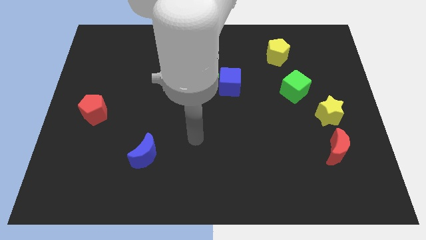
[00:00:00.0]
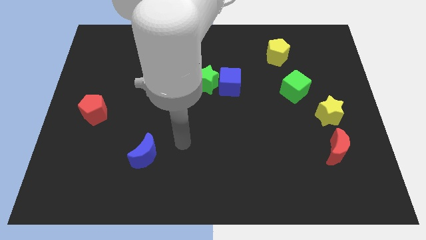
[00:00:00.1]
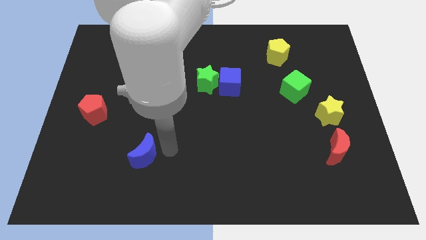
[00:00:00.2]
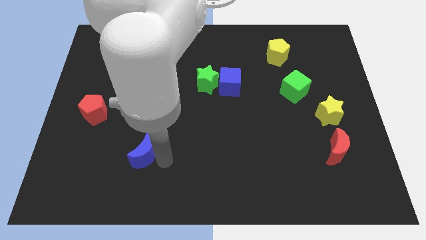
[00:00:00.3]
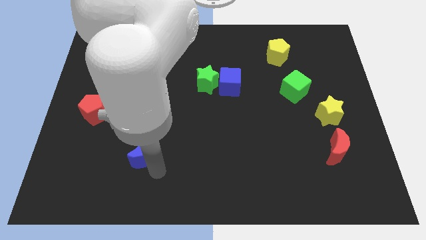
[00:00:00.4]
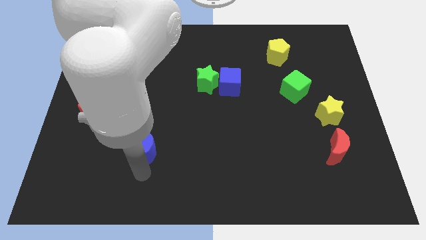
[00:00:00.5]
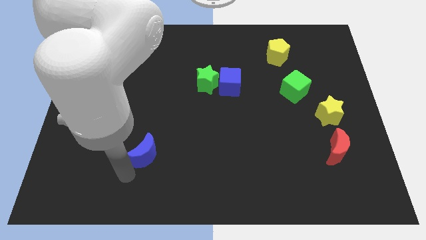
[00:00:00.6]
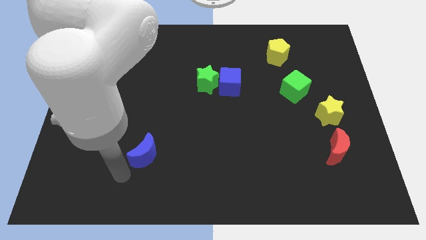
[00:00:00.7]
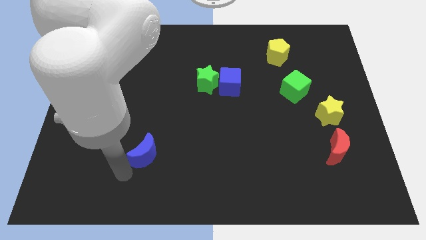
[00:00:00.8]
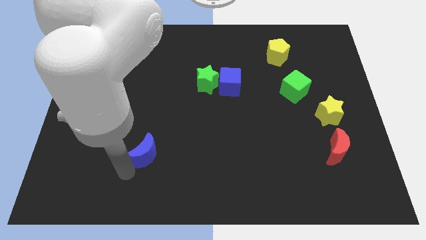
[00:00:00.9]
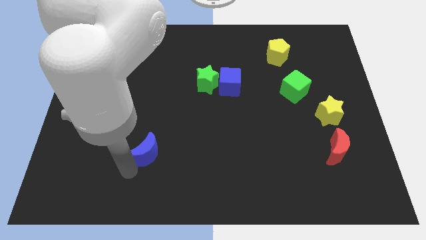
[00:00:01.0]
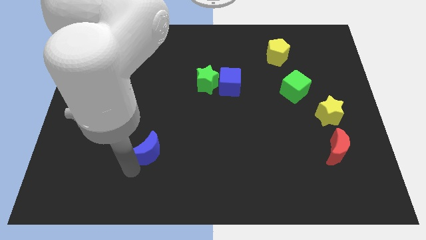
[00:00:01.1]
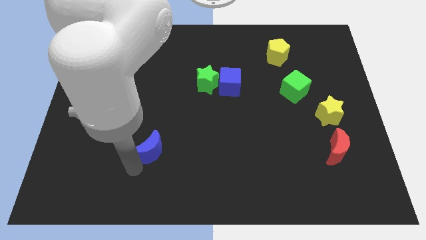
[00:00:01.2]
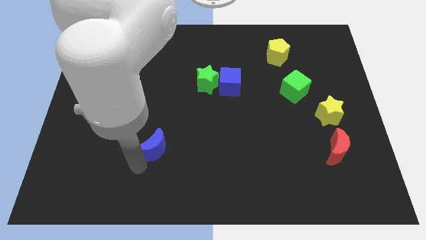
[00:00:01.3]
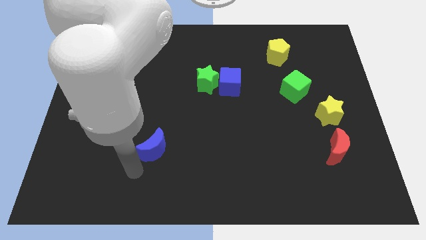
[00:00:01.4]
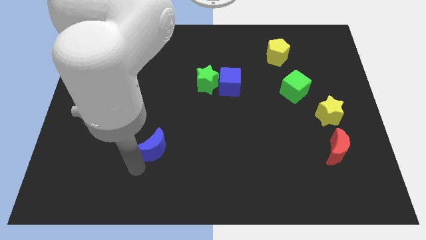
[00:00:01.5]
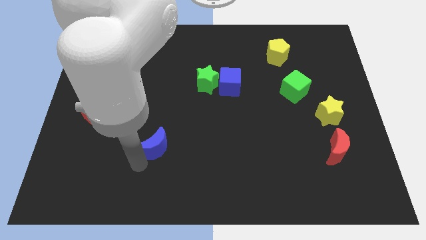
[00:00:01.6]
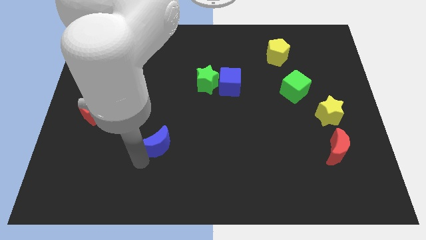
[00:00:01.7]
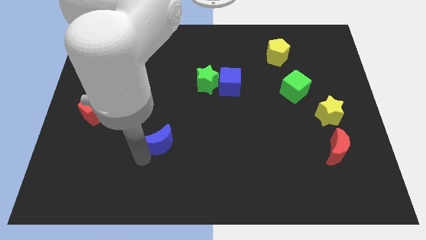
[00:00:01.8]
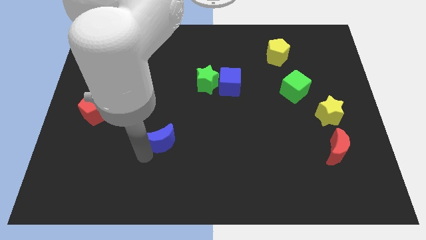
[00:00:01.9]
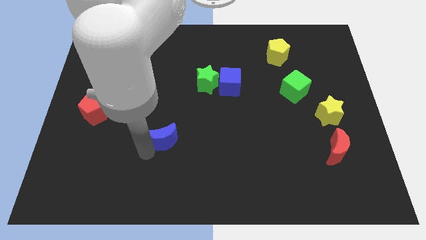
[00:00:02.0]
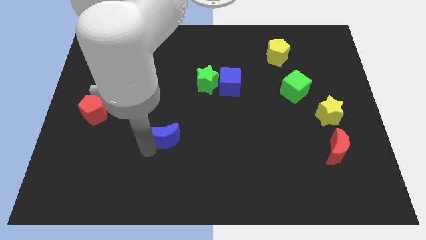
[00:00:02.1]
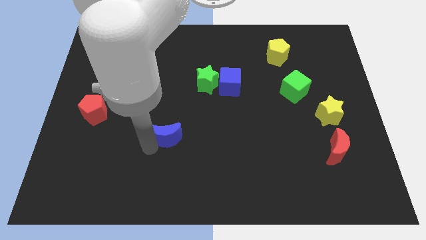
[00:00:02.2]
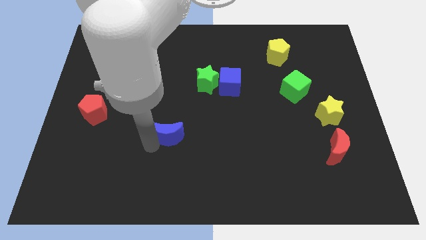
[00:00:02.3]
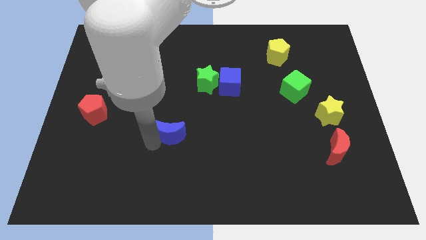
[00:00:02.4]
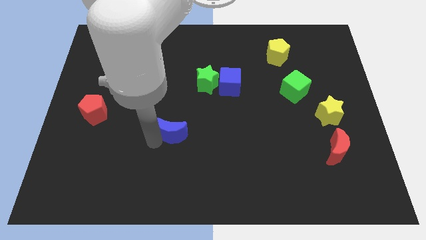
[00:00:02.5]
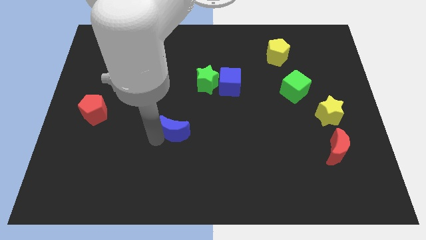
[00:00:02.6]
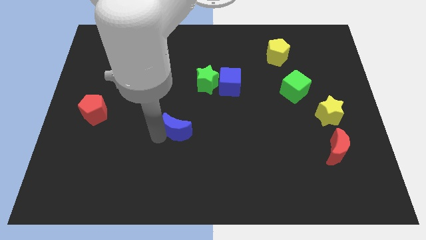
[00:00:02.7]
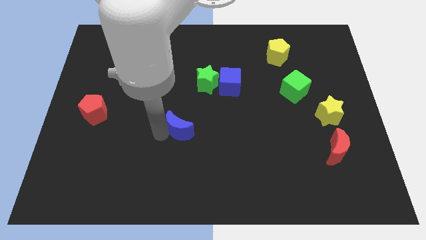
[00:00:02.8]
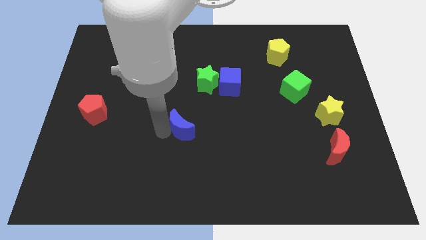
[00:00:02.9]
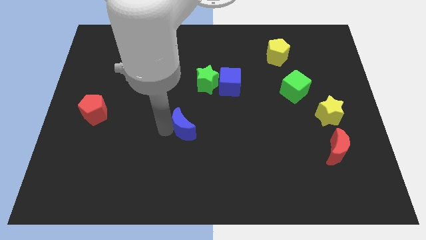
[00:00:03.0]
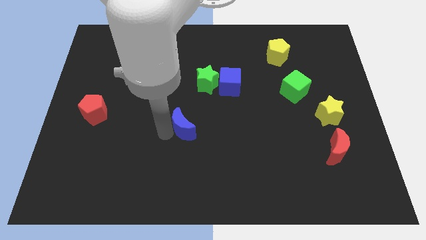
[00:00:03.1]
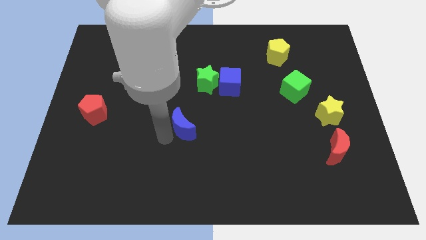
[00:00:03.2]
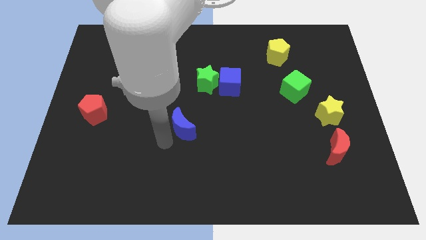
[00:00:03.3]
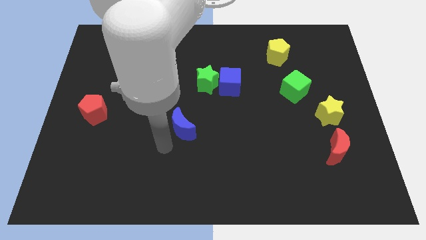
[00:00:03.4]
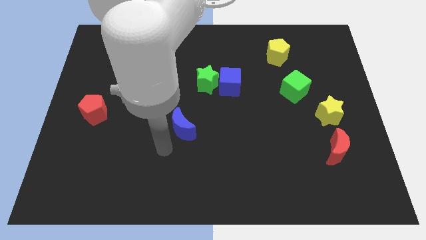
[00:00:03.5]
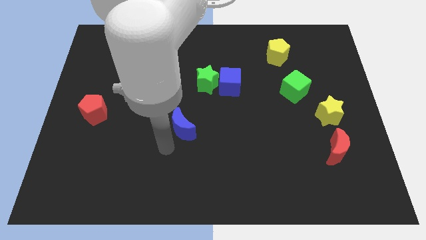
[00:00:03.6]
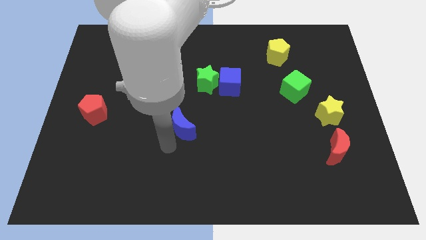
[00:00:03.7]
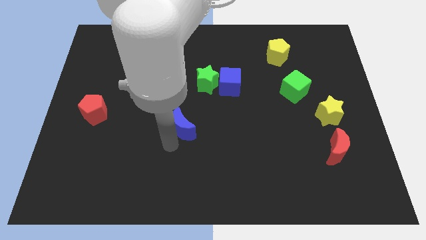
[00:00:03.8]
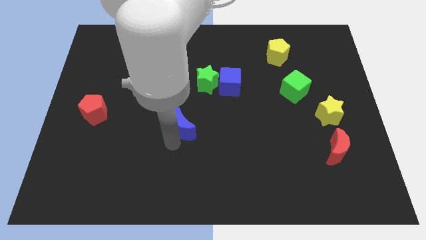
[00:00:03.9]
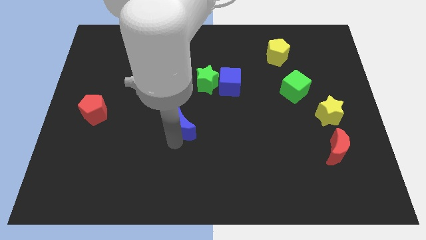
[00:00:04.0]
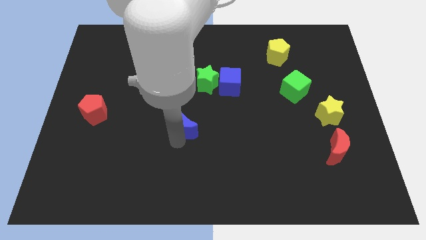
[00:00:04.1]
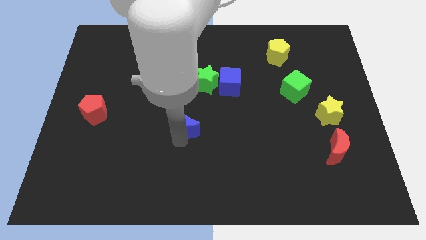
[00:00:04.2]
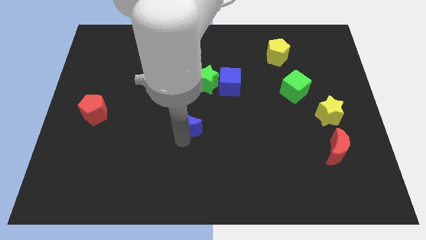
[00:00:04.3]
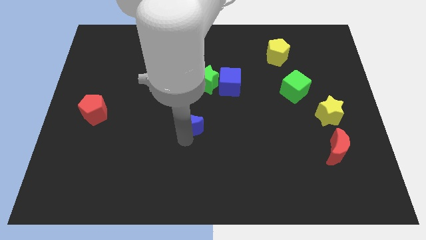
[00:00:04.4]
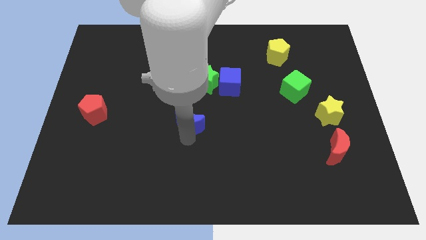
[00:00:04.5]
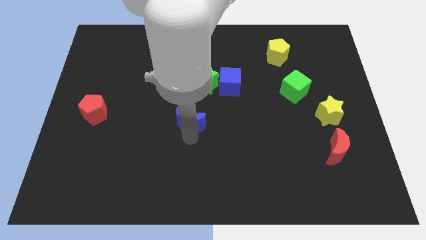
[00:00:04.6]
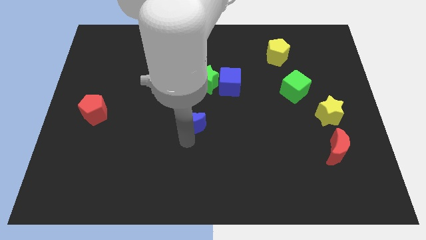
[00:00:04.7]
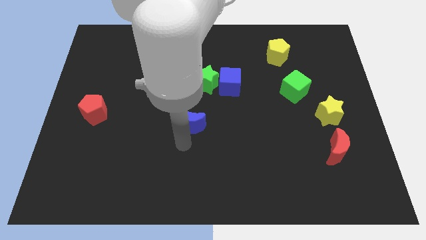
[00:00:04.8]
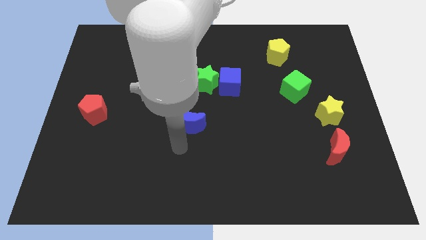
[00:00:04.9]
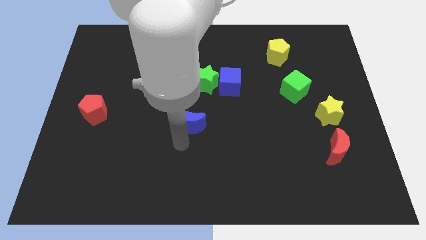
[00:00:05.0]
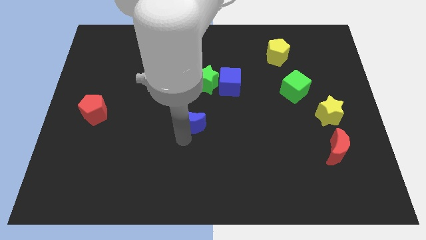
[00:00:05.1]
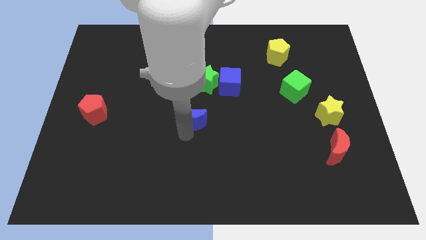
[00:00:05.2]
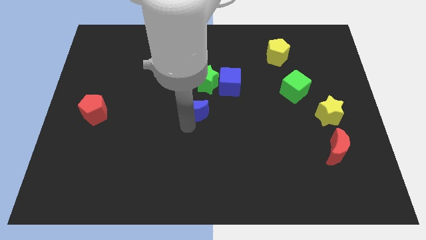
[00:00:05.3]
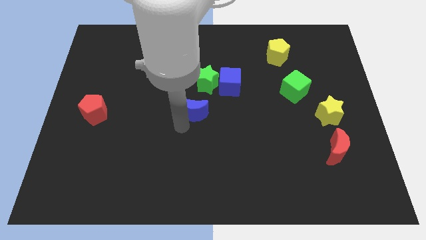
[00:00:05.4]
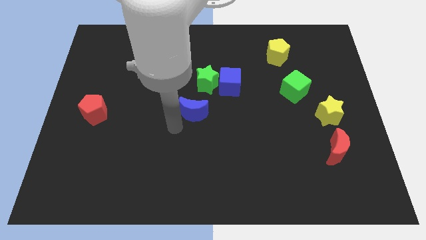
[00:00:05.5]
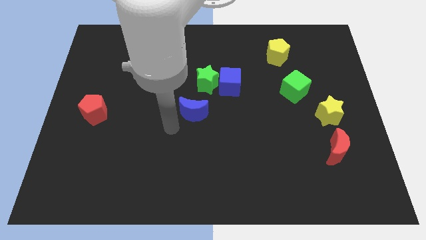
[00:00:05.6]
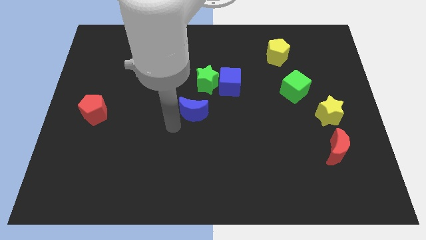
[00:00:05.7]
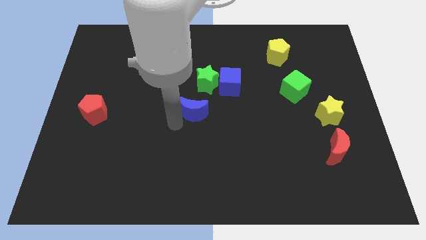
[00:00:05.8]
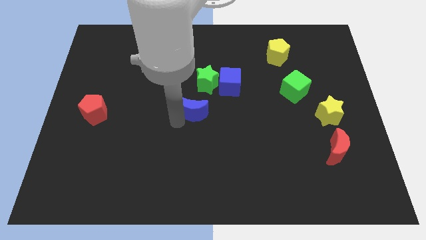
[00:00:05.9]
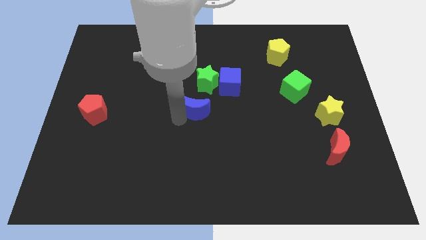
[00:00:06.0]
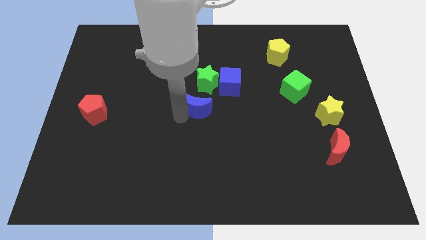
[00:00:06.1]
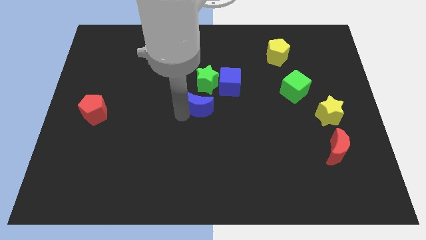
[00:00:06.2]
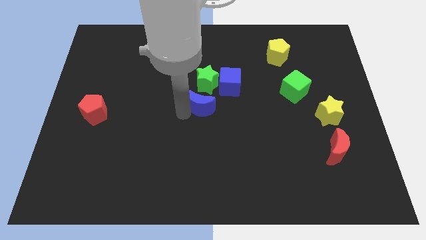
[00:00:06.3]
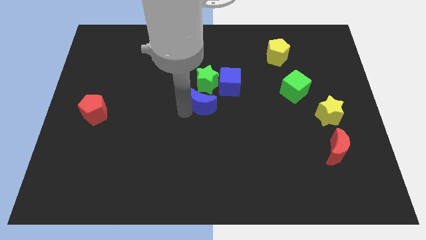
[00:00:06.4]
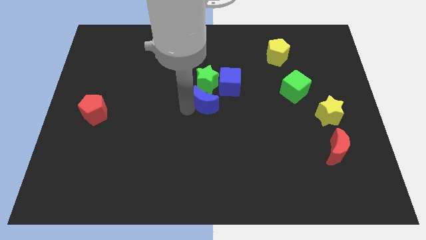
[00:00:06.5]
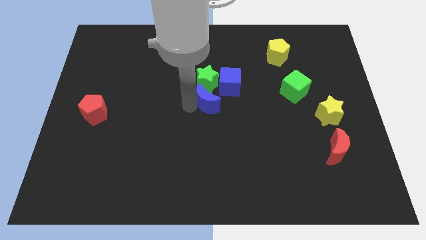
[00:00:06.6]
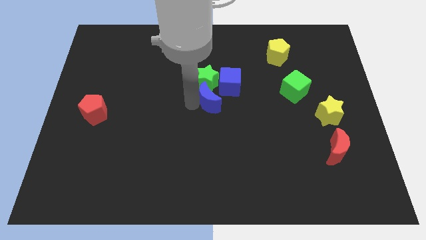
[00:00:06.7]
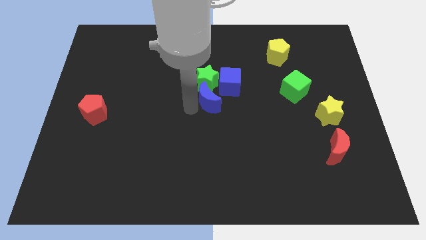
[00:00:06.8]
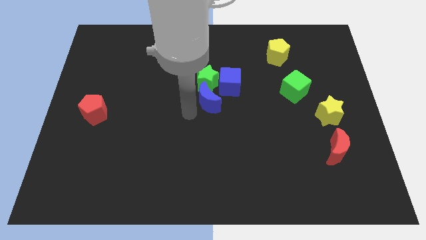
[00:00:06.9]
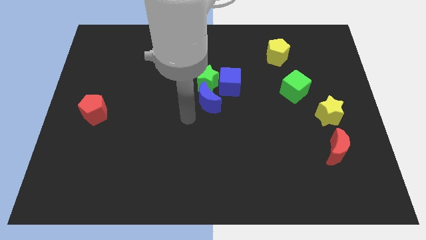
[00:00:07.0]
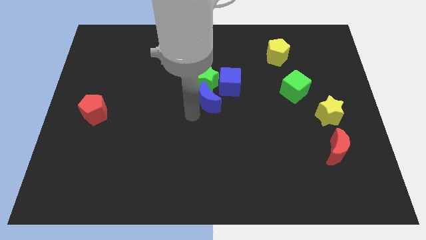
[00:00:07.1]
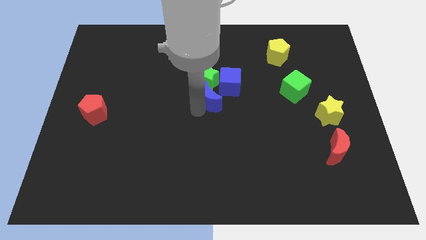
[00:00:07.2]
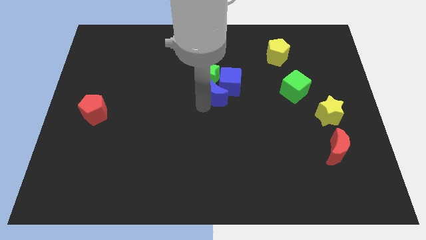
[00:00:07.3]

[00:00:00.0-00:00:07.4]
push the blue moon next to the blue cube
